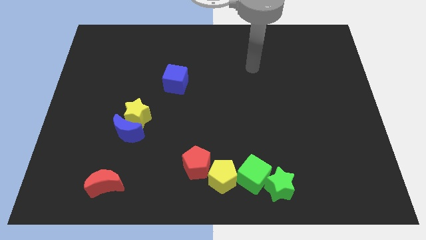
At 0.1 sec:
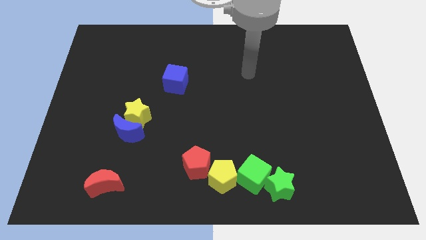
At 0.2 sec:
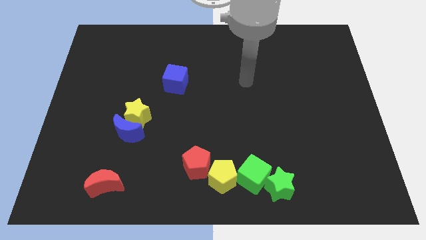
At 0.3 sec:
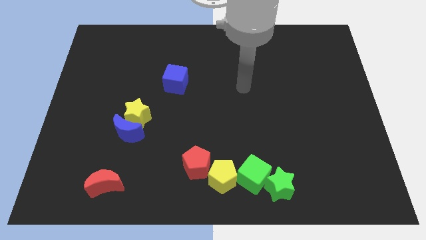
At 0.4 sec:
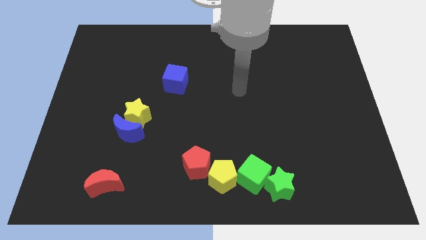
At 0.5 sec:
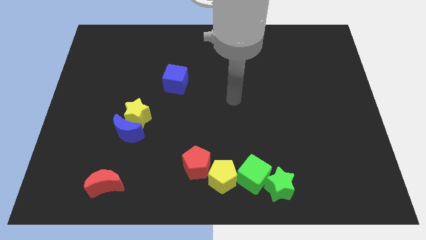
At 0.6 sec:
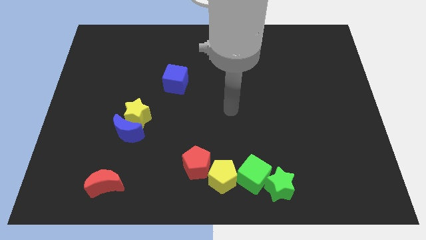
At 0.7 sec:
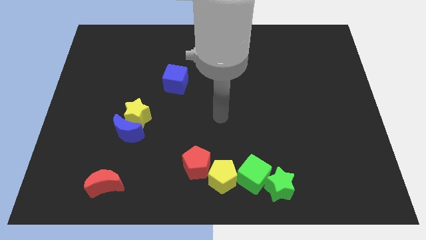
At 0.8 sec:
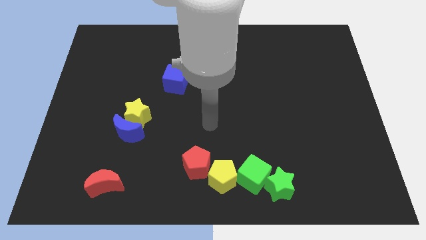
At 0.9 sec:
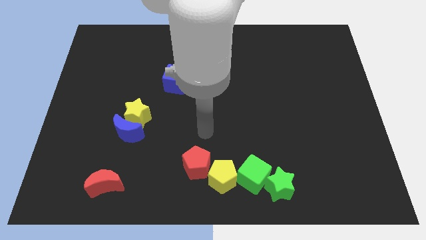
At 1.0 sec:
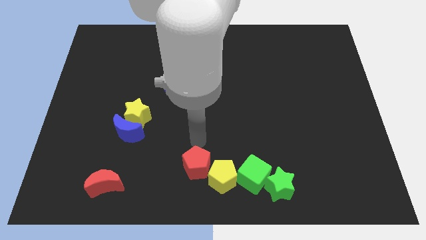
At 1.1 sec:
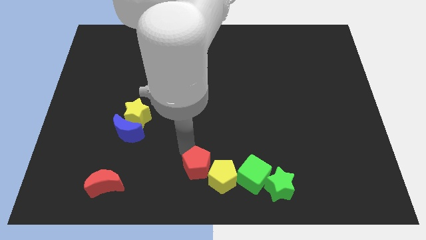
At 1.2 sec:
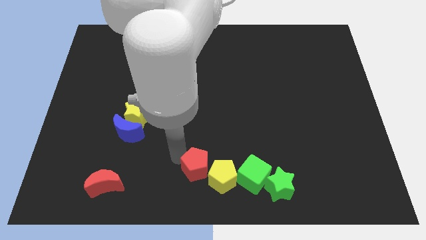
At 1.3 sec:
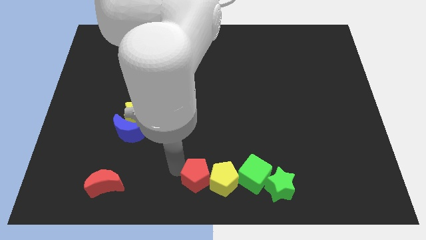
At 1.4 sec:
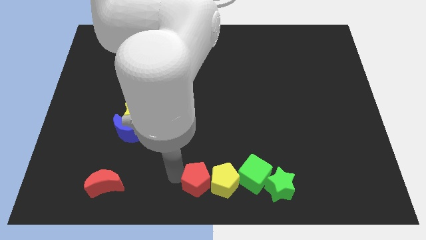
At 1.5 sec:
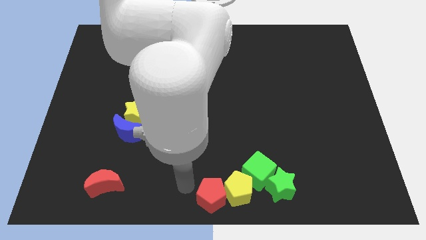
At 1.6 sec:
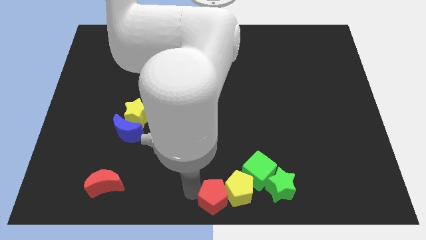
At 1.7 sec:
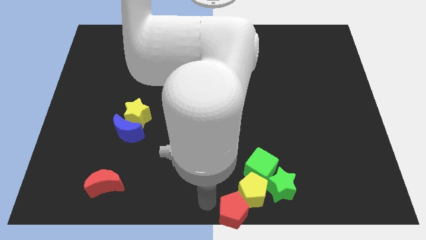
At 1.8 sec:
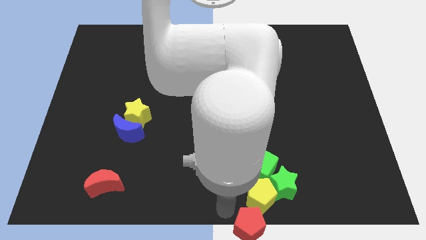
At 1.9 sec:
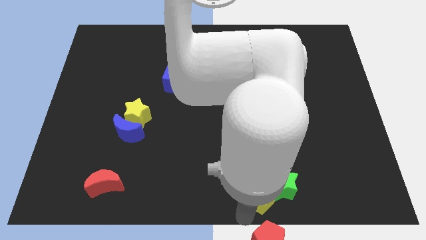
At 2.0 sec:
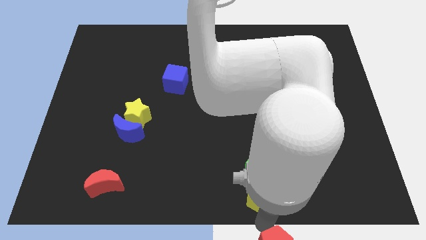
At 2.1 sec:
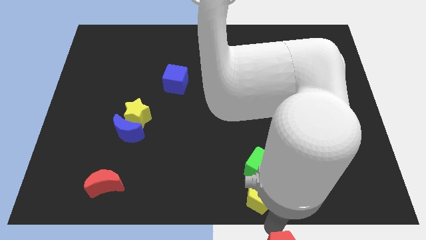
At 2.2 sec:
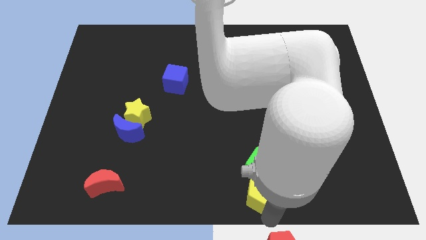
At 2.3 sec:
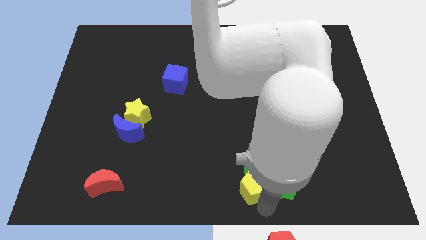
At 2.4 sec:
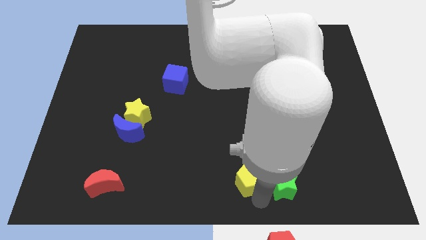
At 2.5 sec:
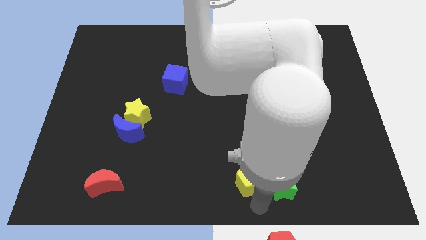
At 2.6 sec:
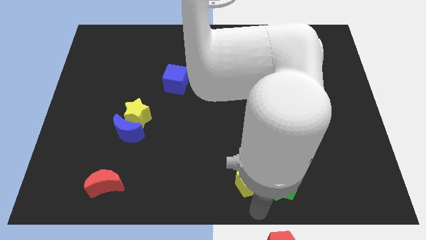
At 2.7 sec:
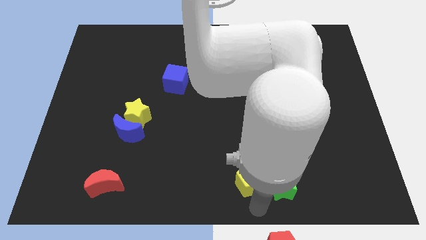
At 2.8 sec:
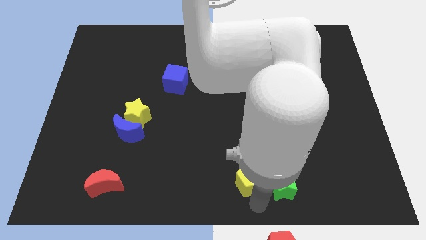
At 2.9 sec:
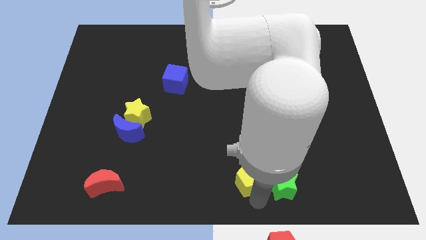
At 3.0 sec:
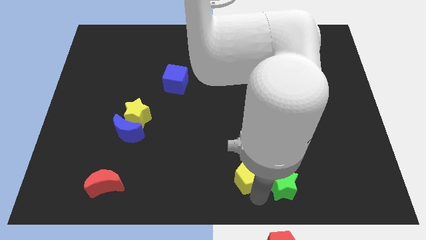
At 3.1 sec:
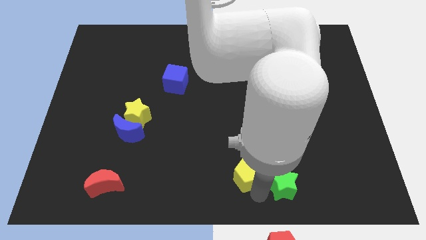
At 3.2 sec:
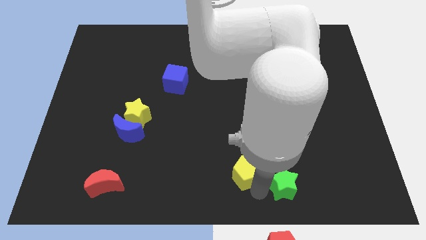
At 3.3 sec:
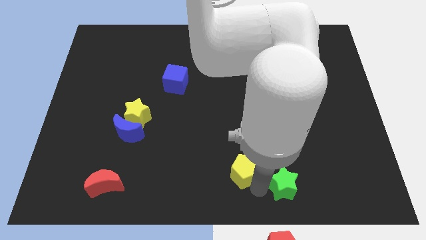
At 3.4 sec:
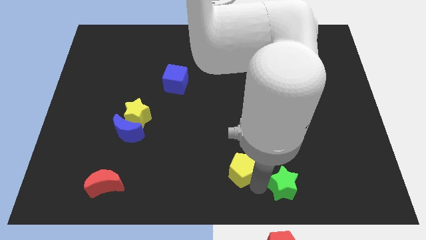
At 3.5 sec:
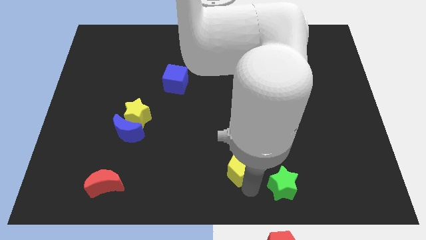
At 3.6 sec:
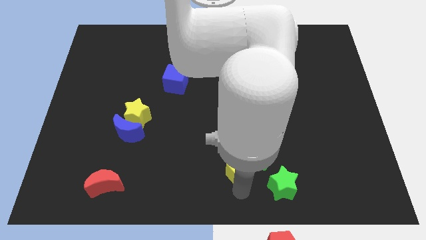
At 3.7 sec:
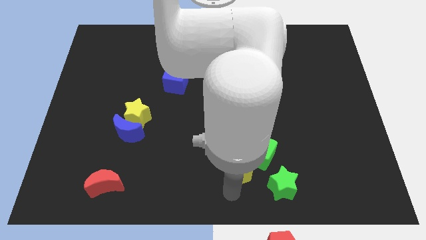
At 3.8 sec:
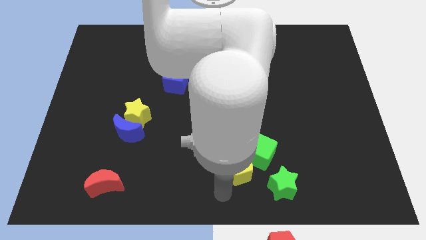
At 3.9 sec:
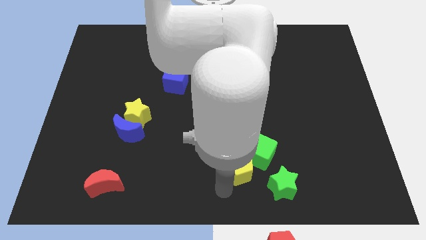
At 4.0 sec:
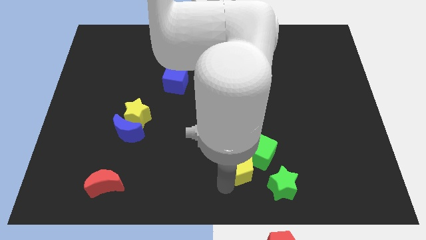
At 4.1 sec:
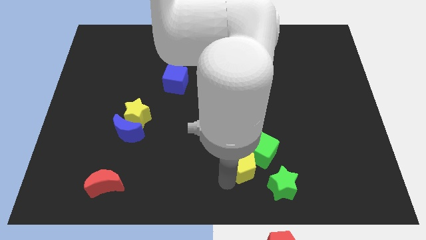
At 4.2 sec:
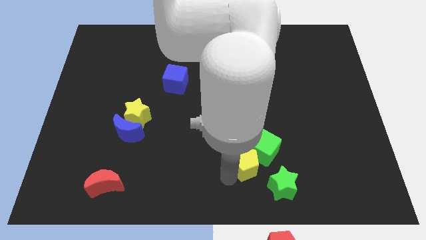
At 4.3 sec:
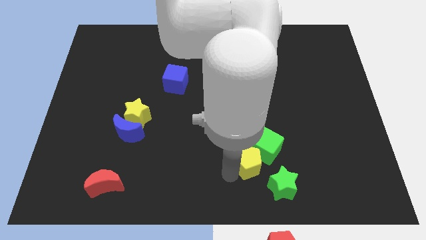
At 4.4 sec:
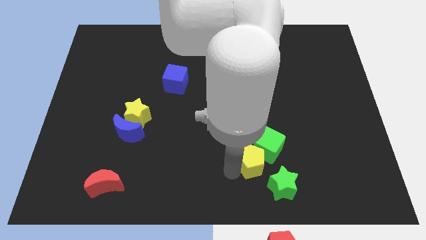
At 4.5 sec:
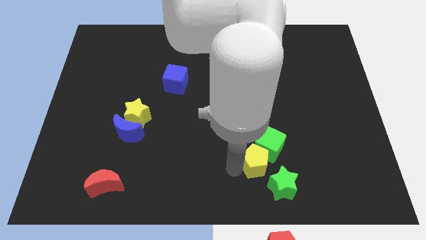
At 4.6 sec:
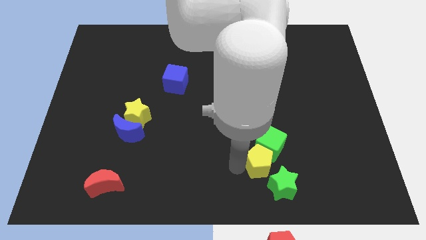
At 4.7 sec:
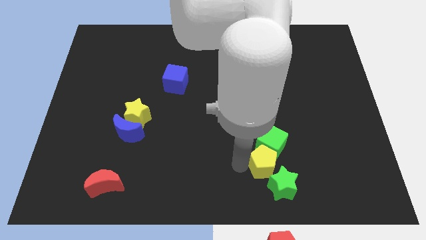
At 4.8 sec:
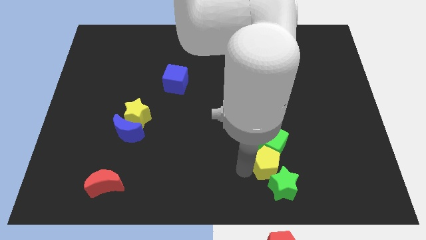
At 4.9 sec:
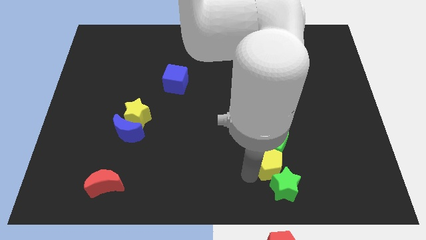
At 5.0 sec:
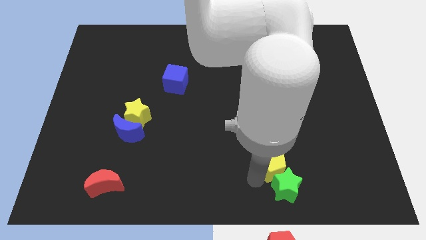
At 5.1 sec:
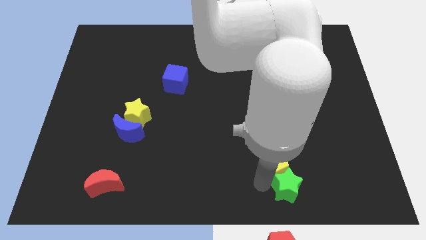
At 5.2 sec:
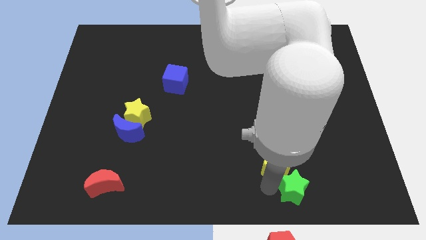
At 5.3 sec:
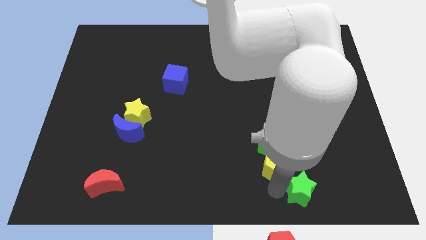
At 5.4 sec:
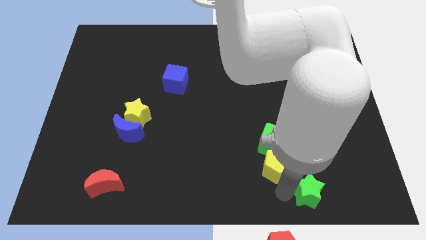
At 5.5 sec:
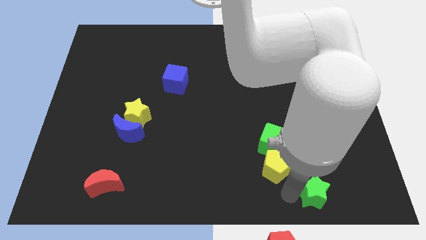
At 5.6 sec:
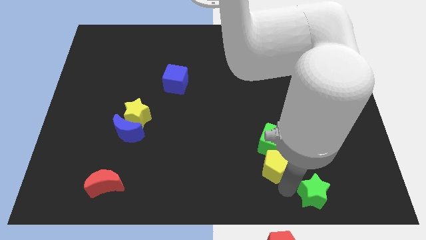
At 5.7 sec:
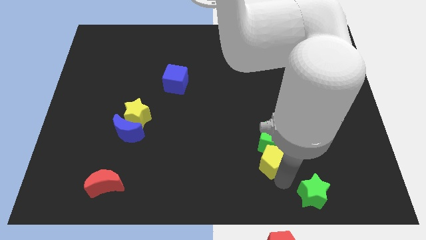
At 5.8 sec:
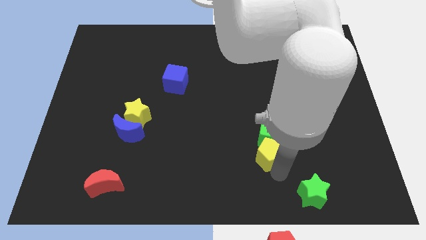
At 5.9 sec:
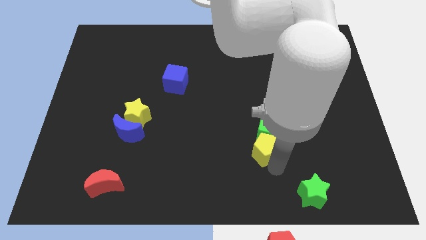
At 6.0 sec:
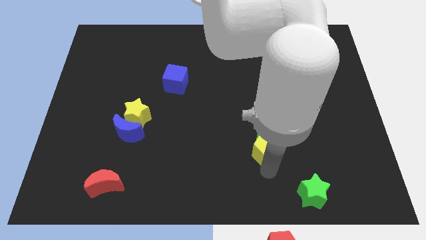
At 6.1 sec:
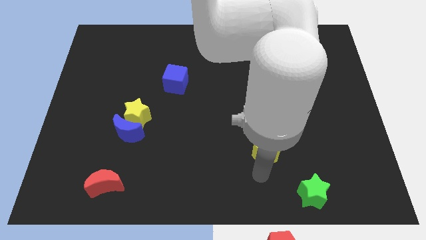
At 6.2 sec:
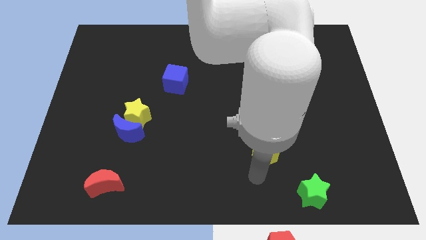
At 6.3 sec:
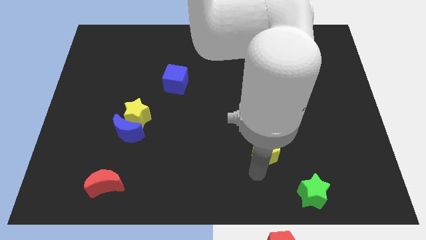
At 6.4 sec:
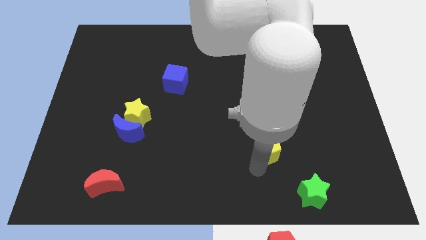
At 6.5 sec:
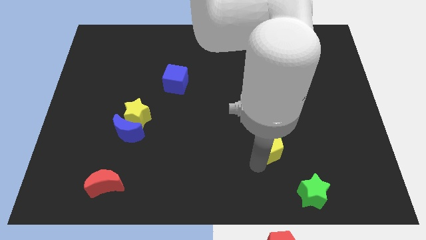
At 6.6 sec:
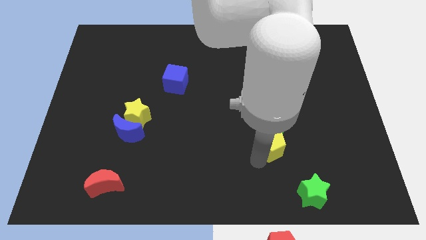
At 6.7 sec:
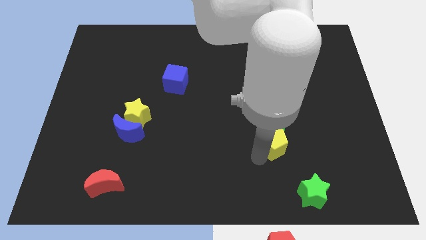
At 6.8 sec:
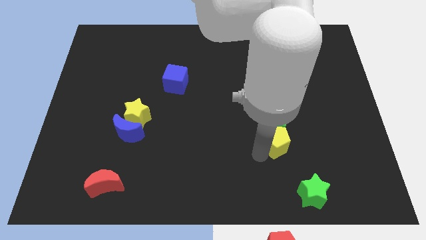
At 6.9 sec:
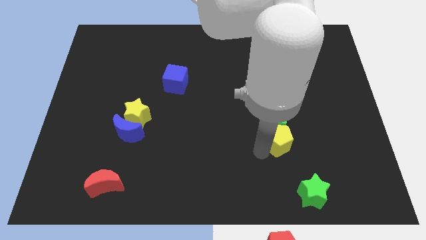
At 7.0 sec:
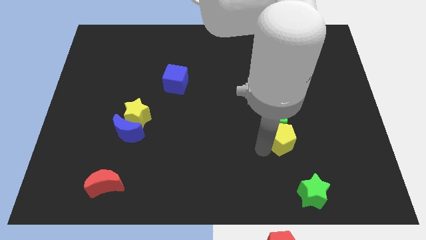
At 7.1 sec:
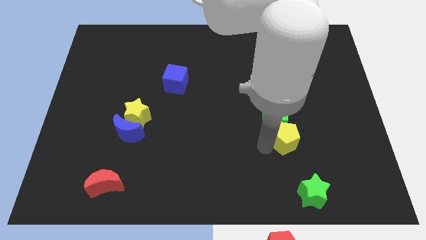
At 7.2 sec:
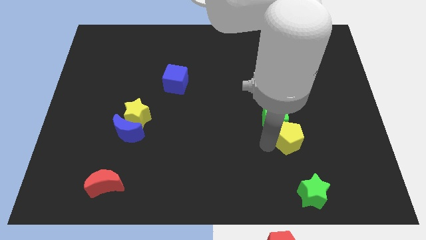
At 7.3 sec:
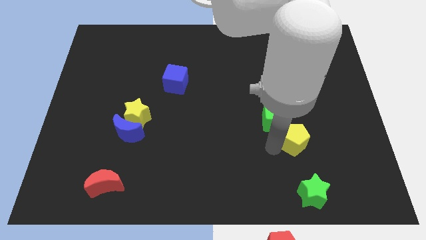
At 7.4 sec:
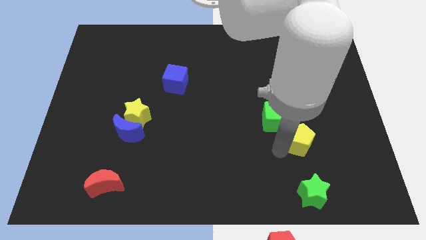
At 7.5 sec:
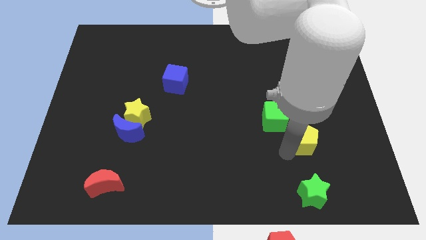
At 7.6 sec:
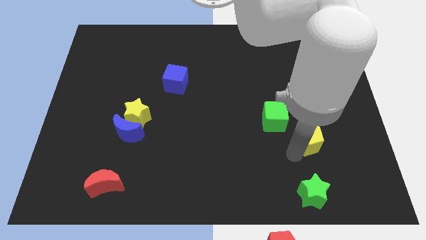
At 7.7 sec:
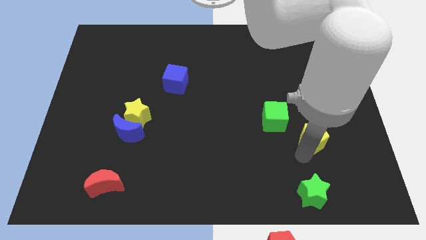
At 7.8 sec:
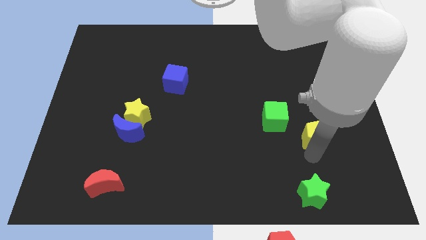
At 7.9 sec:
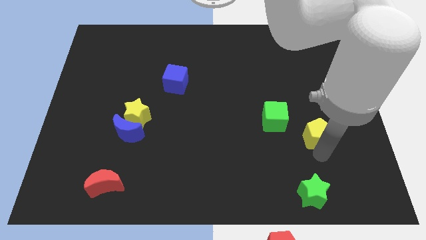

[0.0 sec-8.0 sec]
move the yellow pentagon upwards and to the right diagonally
